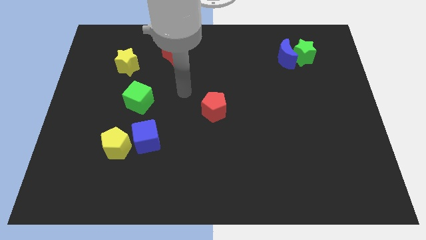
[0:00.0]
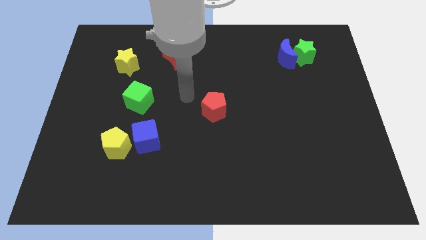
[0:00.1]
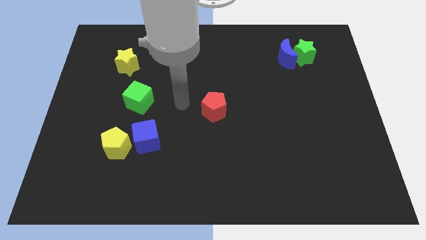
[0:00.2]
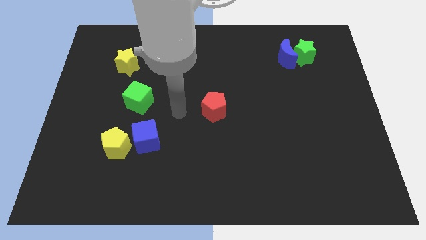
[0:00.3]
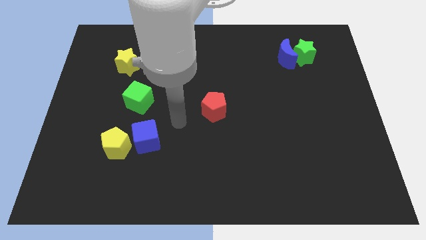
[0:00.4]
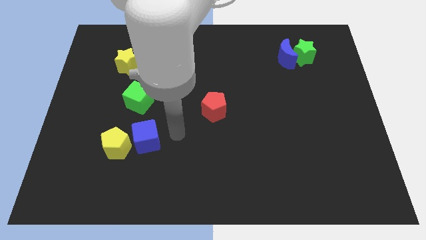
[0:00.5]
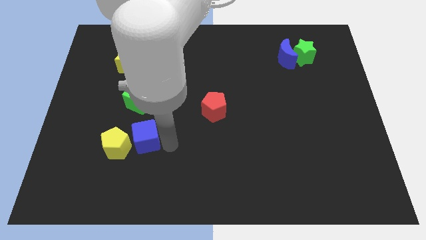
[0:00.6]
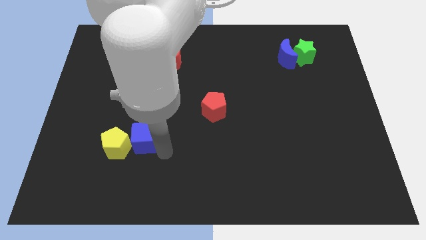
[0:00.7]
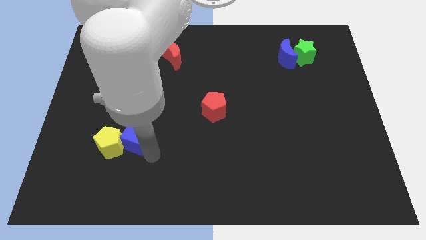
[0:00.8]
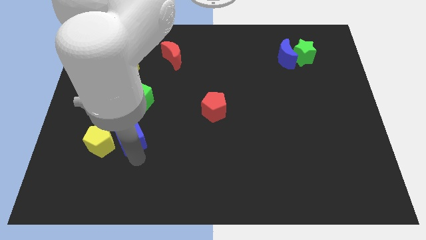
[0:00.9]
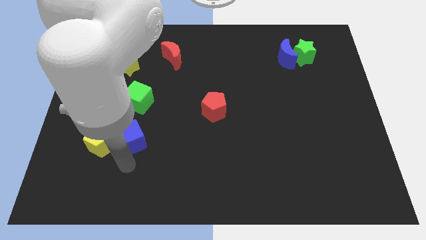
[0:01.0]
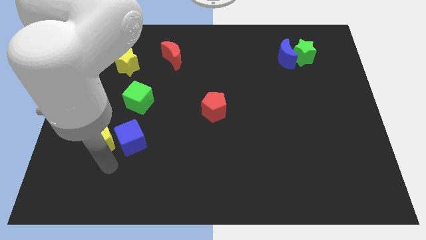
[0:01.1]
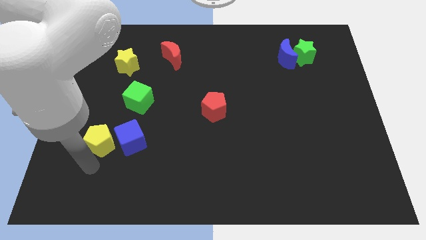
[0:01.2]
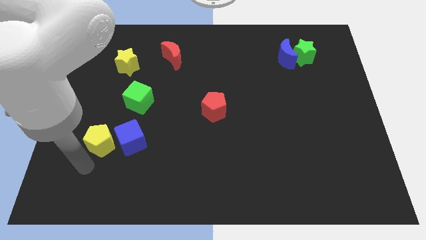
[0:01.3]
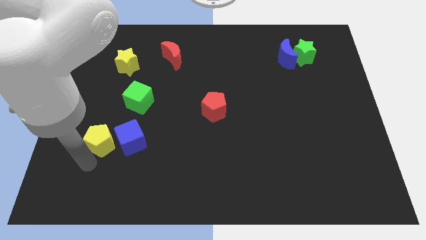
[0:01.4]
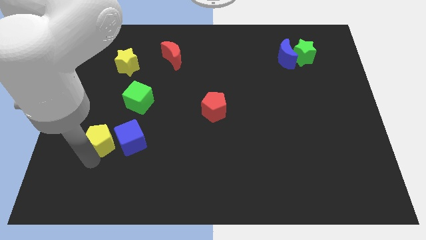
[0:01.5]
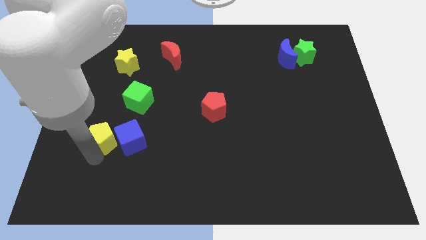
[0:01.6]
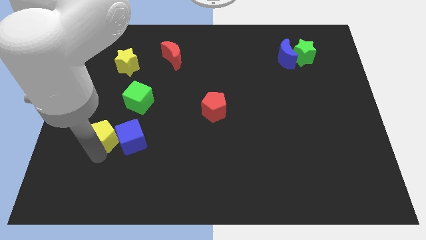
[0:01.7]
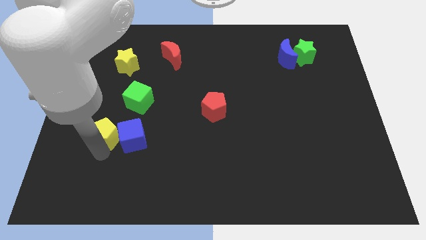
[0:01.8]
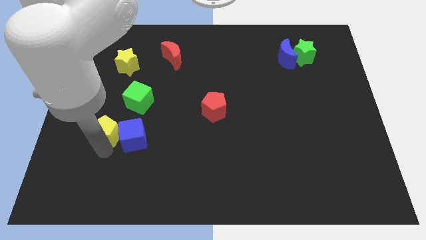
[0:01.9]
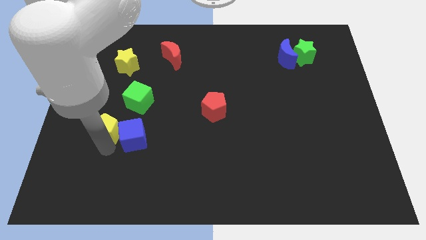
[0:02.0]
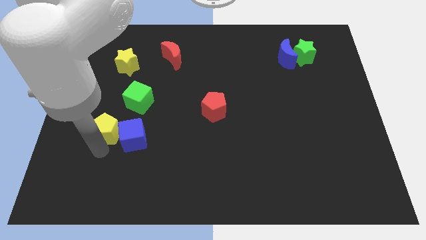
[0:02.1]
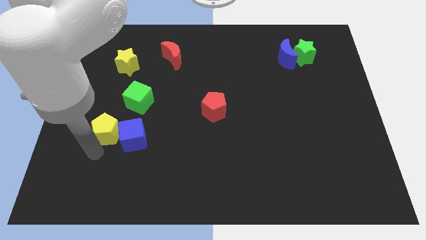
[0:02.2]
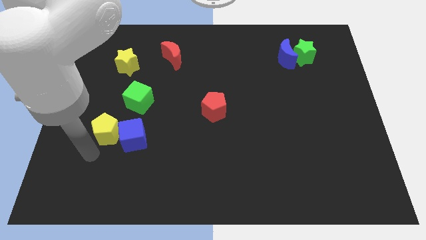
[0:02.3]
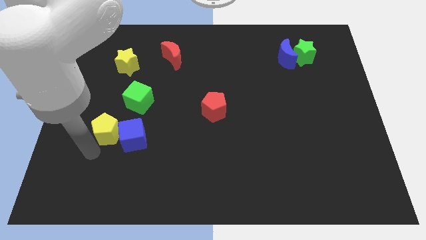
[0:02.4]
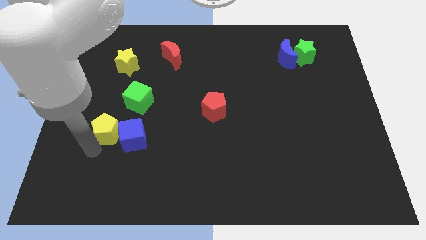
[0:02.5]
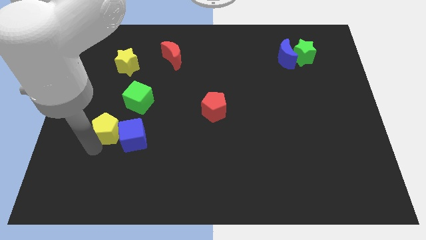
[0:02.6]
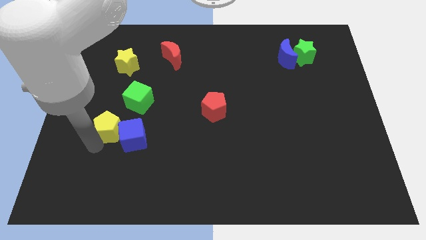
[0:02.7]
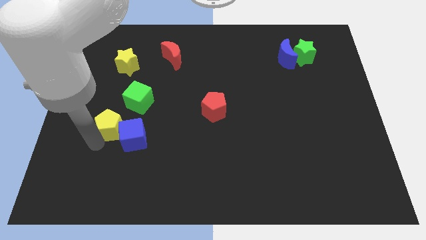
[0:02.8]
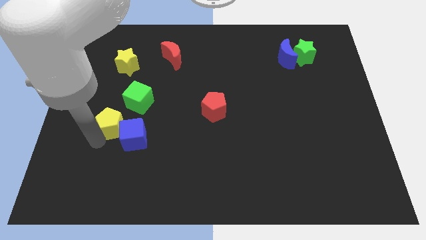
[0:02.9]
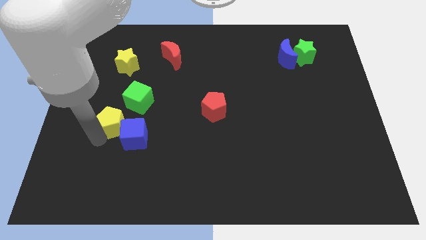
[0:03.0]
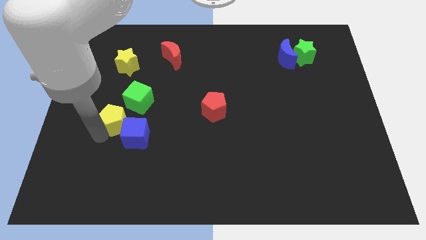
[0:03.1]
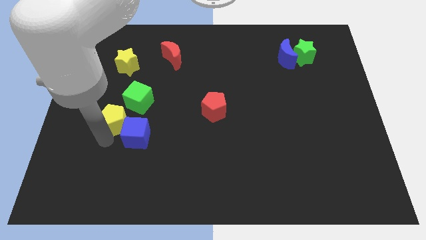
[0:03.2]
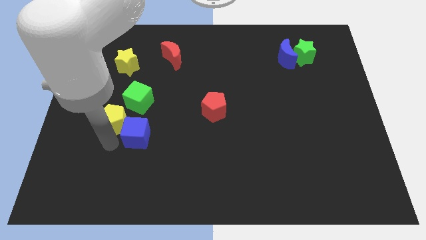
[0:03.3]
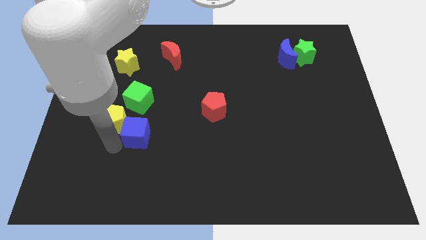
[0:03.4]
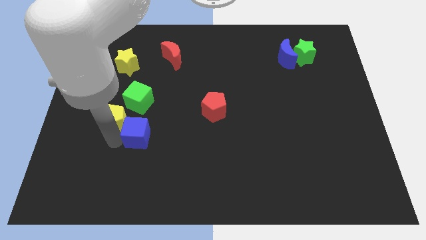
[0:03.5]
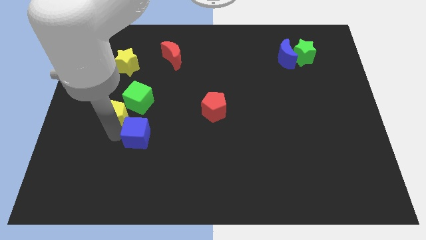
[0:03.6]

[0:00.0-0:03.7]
slightly slide the yellow pentagon upwards

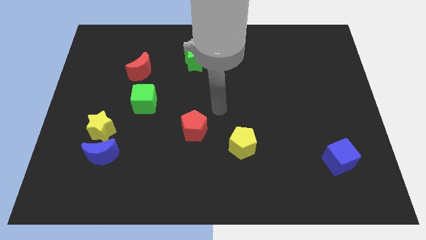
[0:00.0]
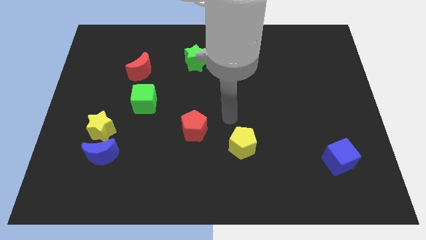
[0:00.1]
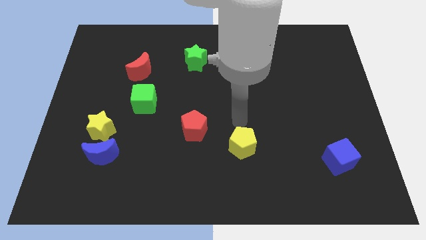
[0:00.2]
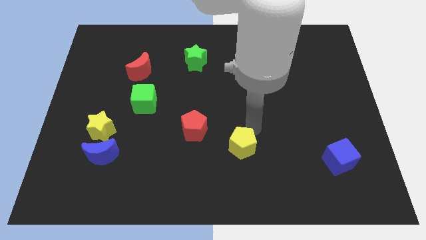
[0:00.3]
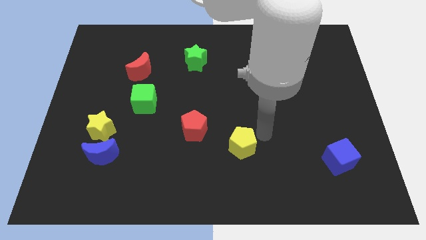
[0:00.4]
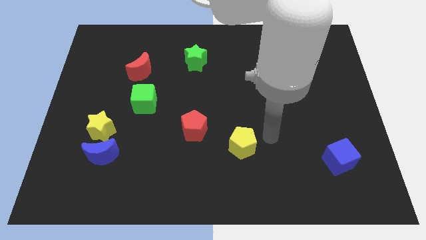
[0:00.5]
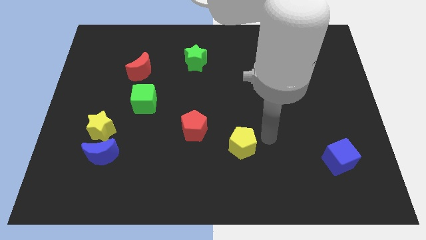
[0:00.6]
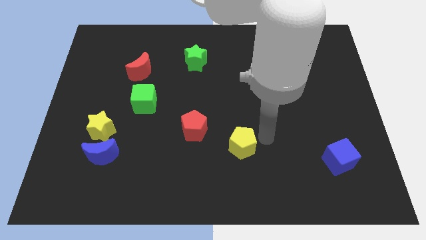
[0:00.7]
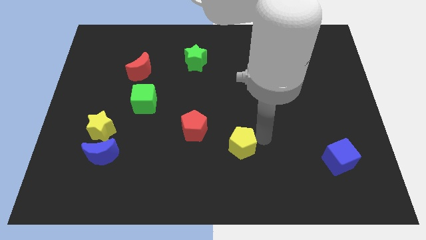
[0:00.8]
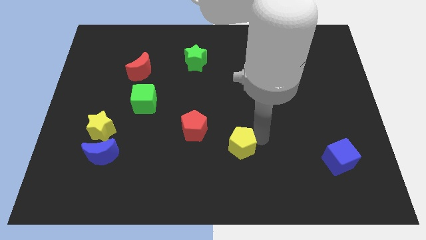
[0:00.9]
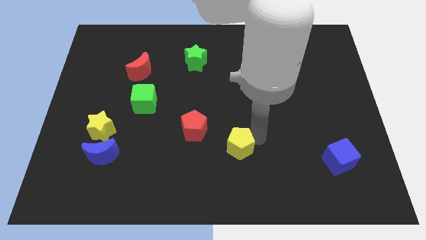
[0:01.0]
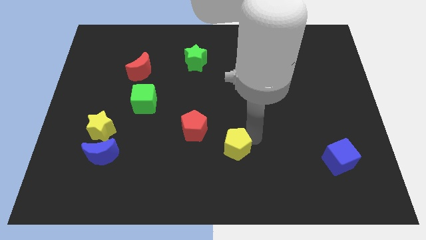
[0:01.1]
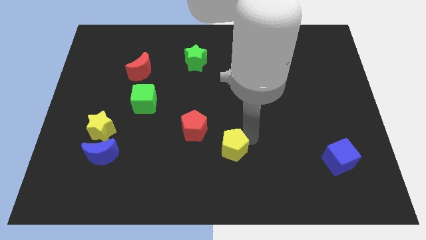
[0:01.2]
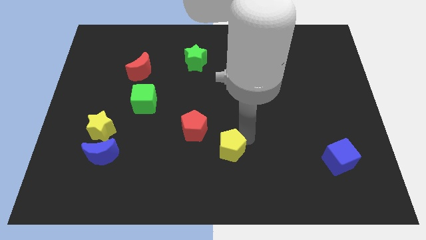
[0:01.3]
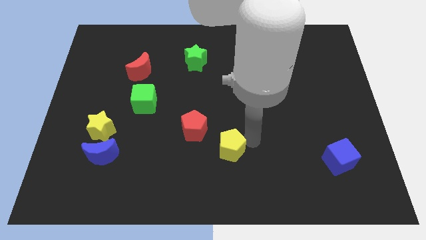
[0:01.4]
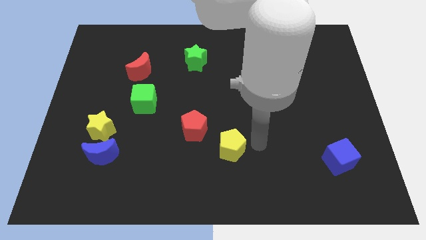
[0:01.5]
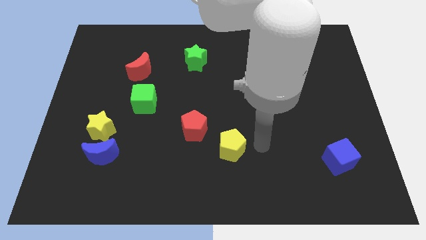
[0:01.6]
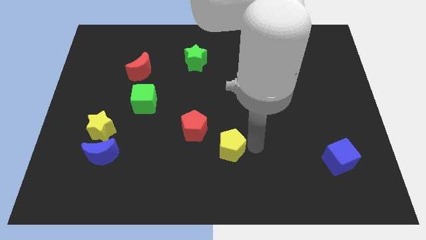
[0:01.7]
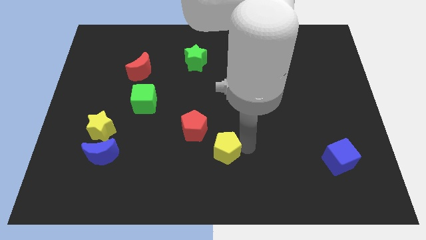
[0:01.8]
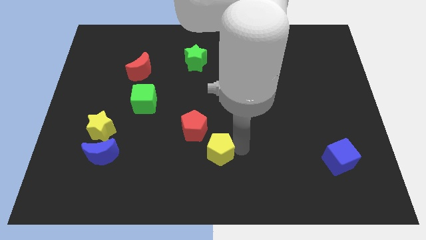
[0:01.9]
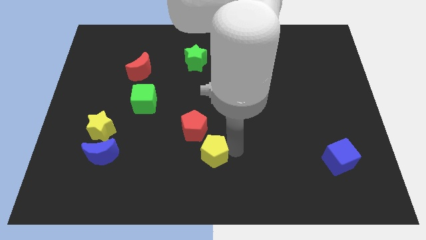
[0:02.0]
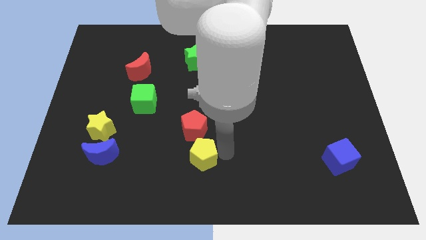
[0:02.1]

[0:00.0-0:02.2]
move the yellow pentagon left a little

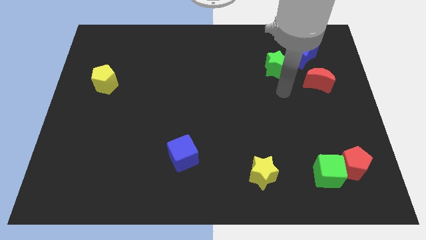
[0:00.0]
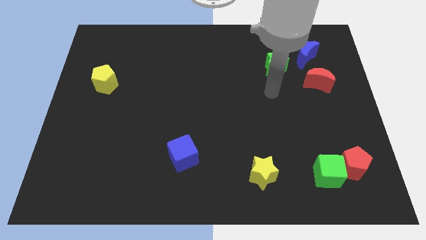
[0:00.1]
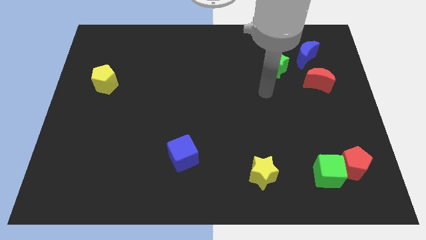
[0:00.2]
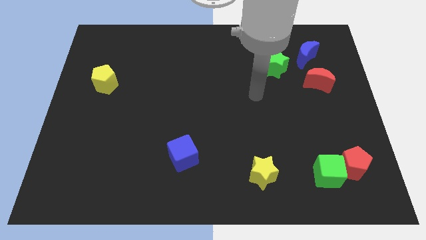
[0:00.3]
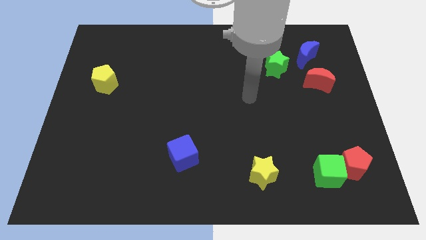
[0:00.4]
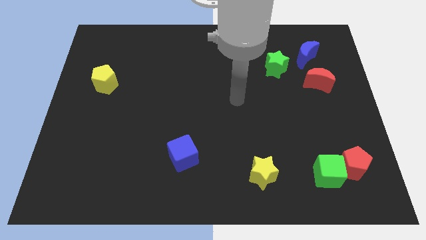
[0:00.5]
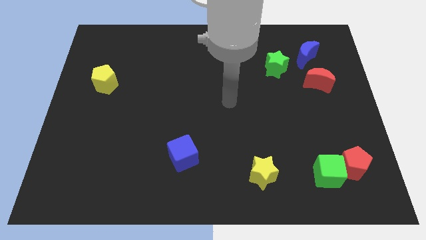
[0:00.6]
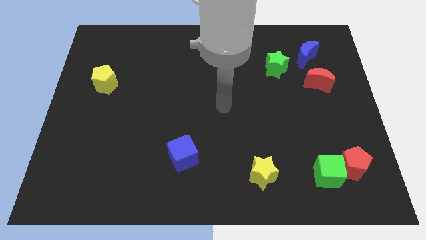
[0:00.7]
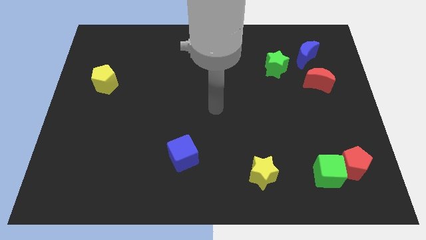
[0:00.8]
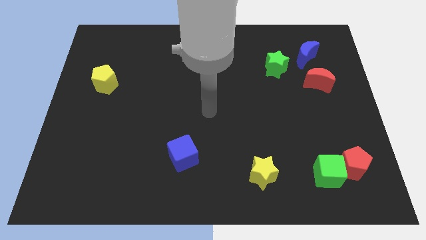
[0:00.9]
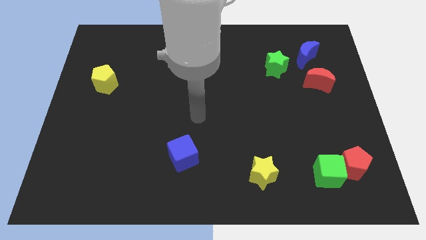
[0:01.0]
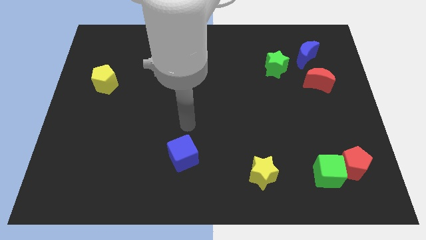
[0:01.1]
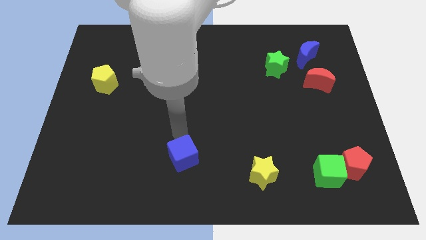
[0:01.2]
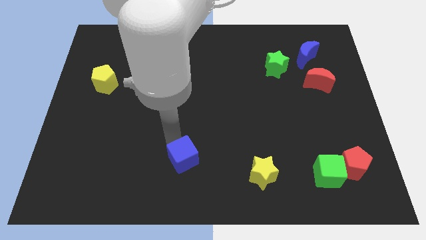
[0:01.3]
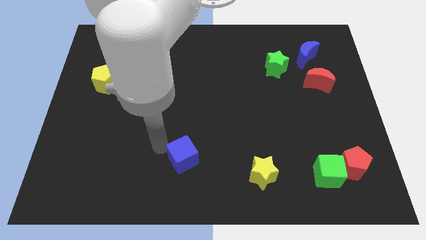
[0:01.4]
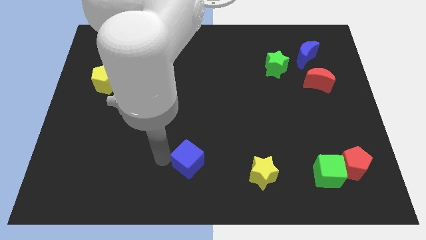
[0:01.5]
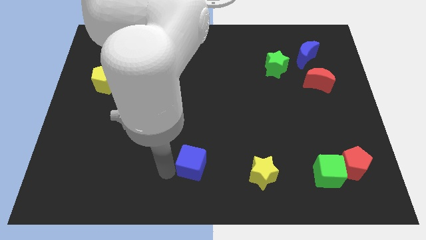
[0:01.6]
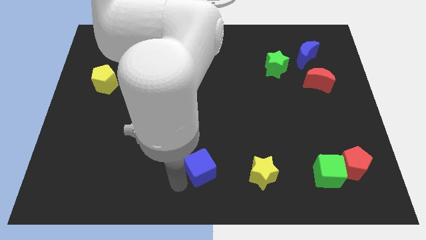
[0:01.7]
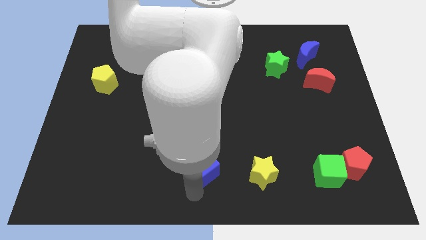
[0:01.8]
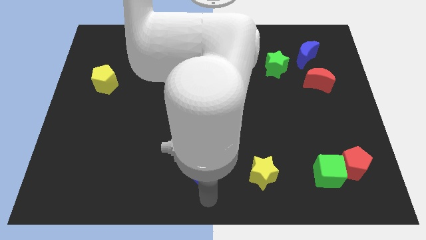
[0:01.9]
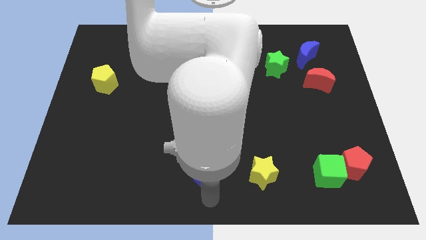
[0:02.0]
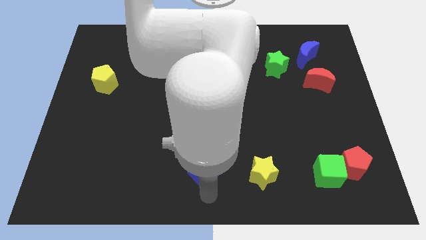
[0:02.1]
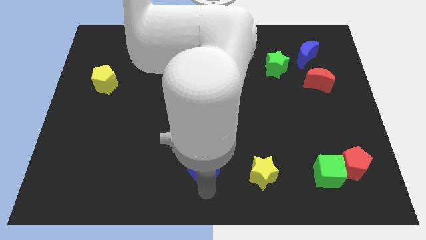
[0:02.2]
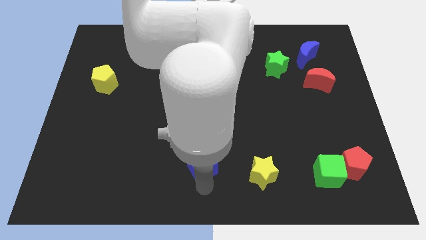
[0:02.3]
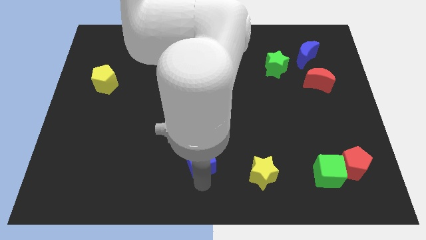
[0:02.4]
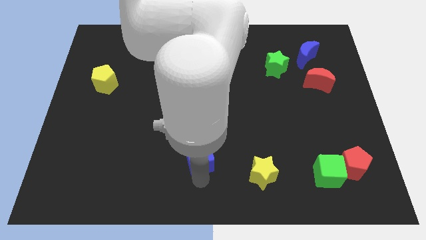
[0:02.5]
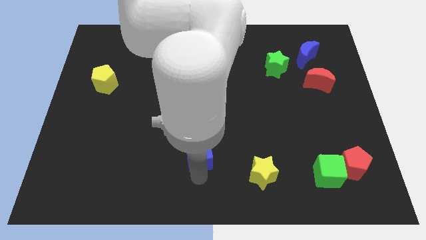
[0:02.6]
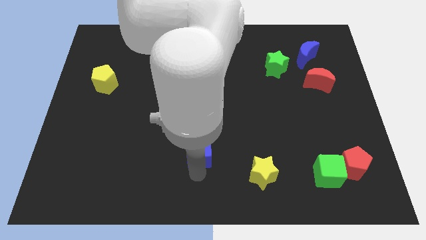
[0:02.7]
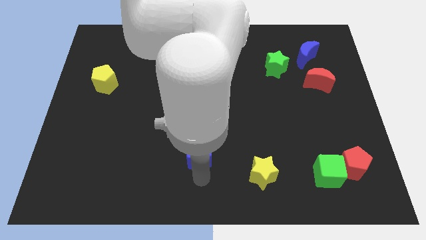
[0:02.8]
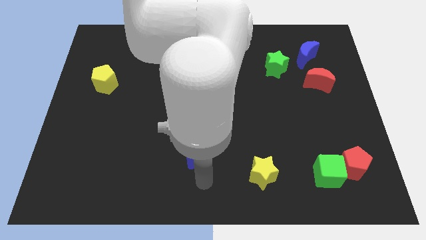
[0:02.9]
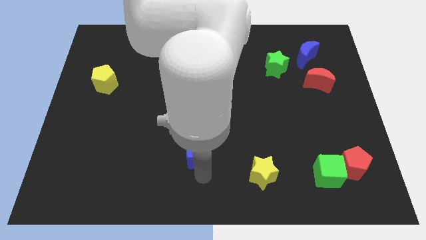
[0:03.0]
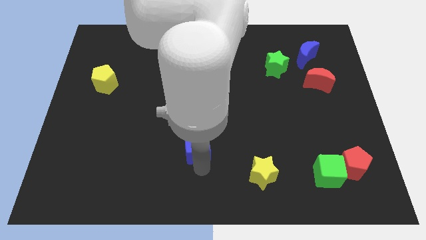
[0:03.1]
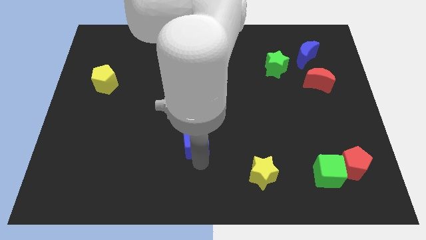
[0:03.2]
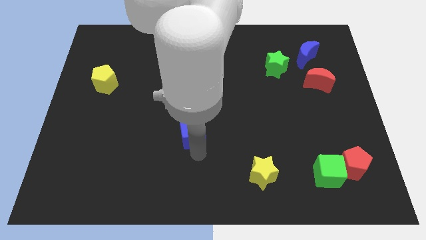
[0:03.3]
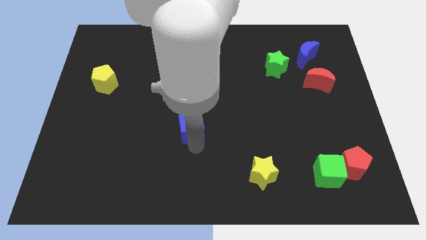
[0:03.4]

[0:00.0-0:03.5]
slightly move the blue cube upwards
